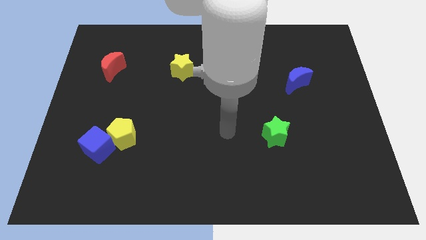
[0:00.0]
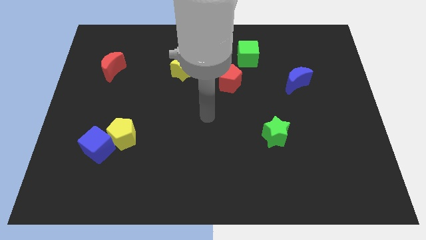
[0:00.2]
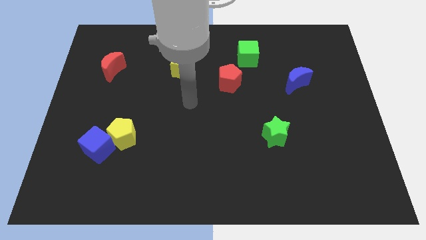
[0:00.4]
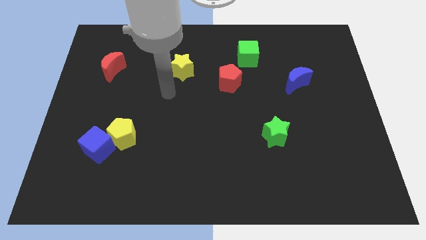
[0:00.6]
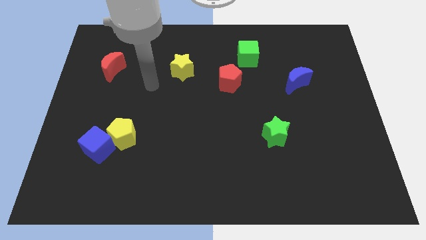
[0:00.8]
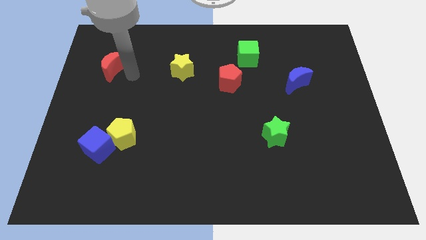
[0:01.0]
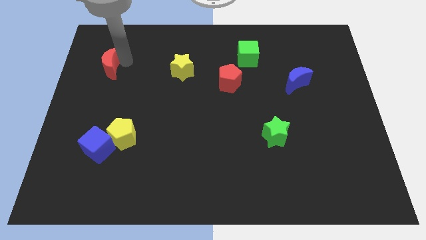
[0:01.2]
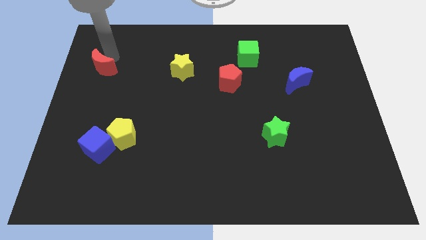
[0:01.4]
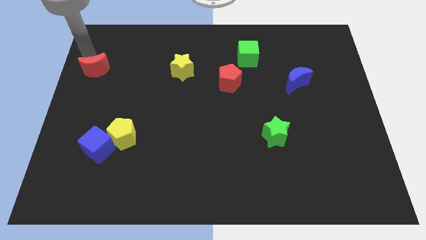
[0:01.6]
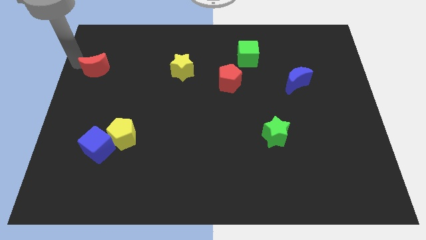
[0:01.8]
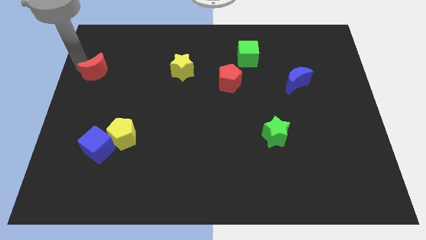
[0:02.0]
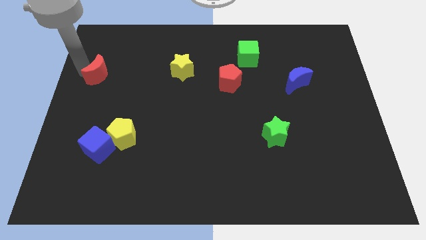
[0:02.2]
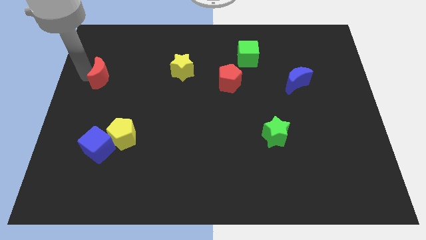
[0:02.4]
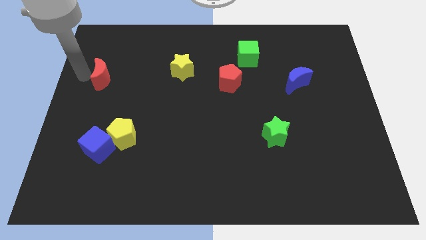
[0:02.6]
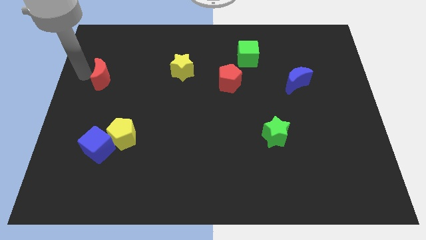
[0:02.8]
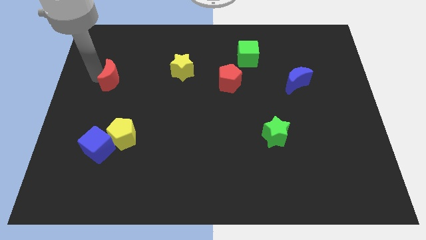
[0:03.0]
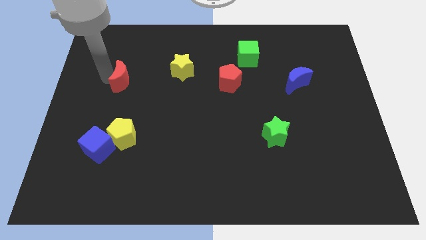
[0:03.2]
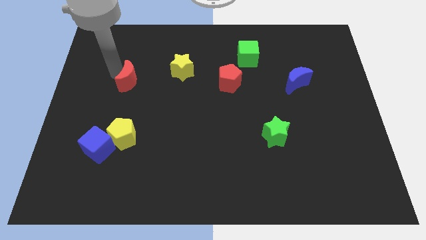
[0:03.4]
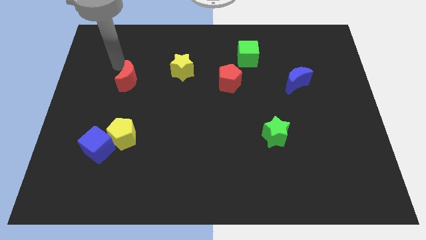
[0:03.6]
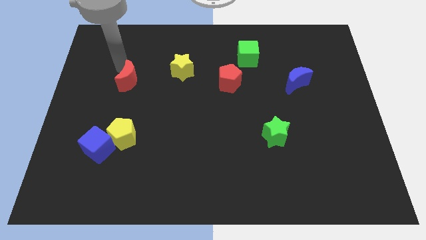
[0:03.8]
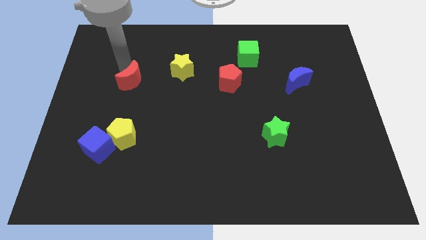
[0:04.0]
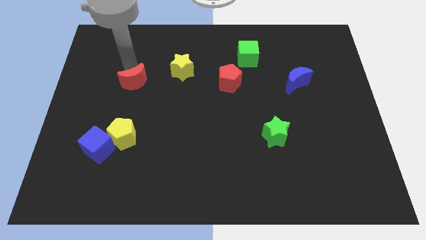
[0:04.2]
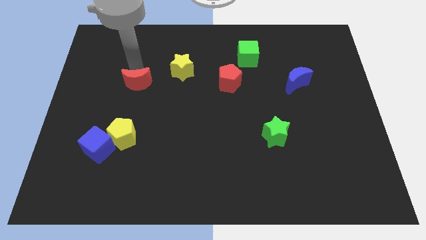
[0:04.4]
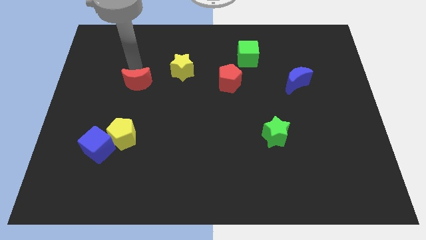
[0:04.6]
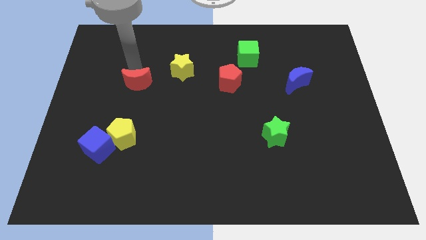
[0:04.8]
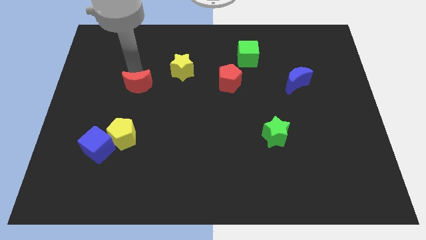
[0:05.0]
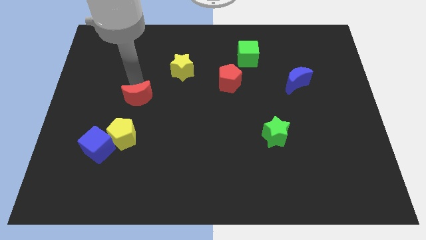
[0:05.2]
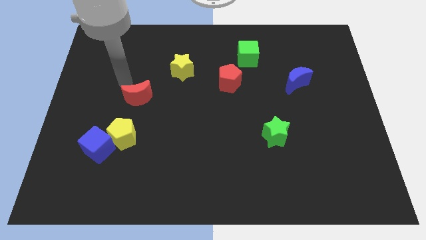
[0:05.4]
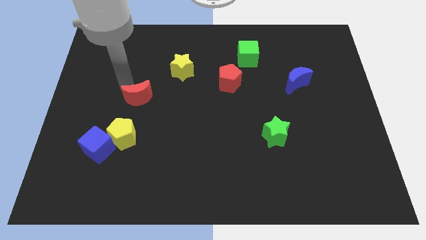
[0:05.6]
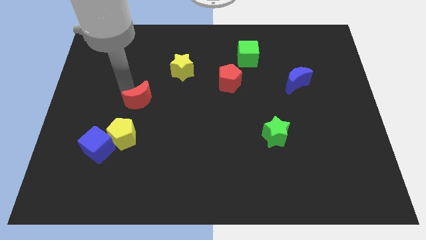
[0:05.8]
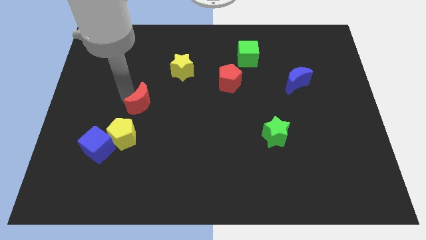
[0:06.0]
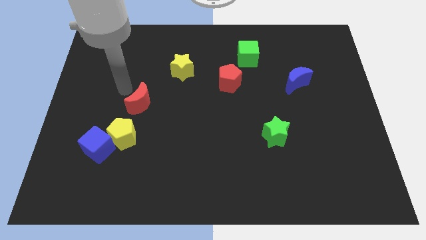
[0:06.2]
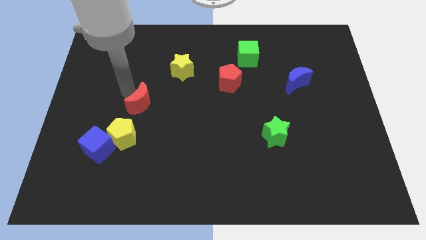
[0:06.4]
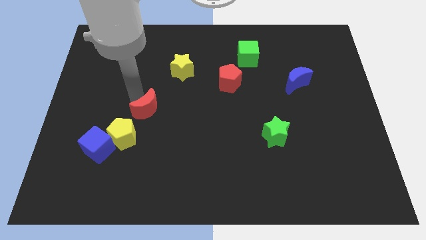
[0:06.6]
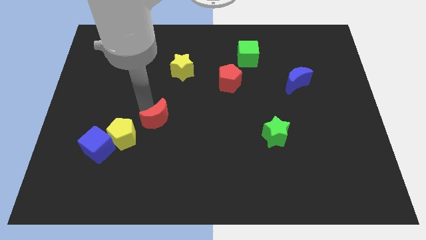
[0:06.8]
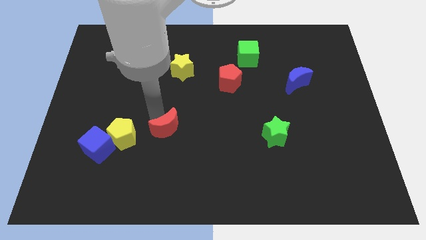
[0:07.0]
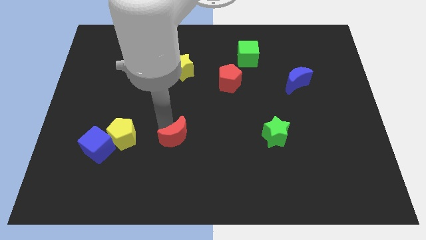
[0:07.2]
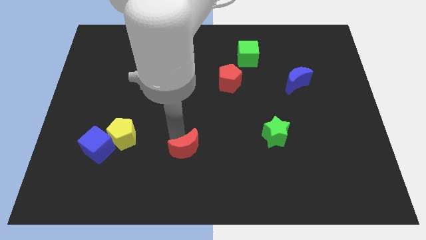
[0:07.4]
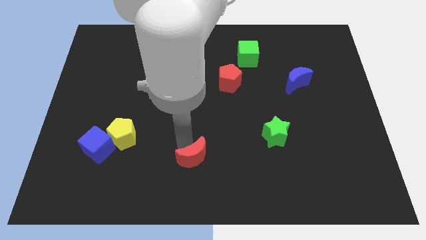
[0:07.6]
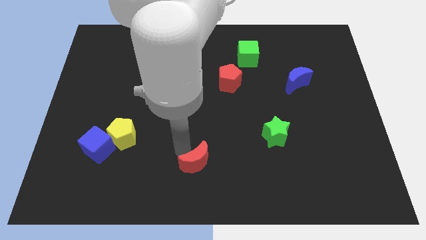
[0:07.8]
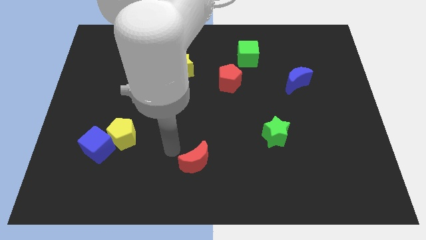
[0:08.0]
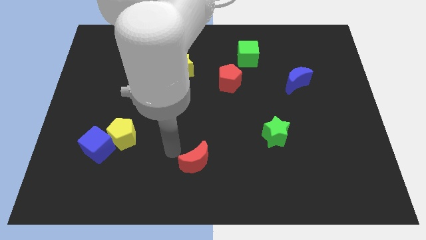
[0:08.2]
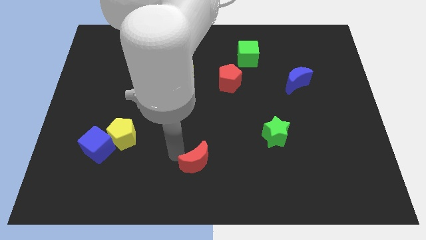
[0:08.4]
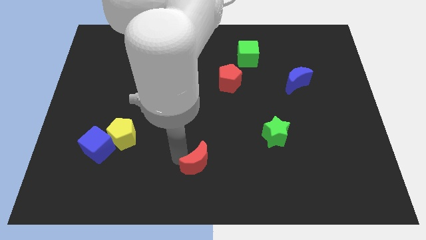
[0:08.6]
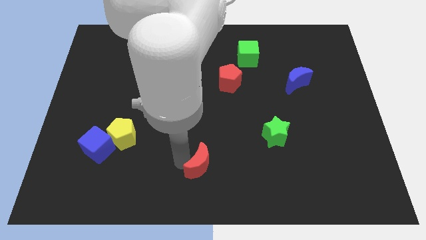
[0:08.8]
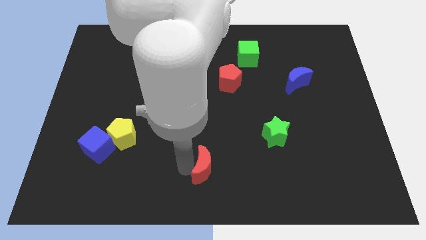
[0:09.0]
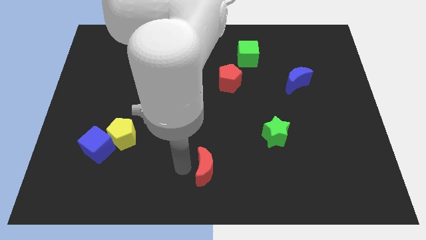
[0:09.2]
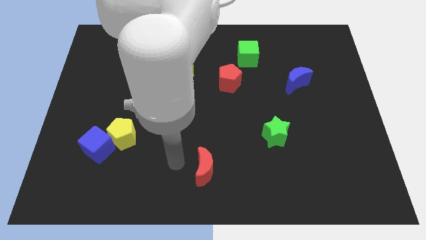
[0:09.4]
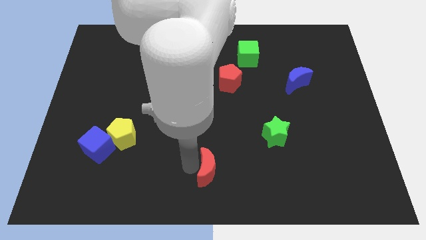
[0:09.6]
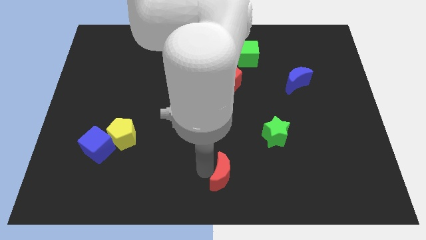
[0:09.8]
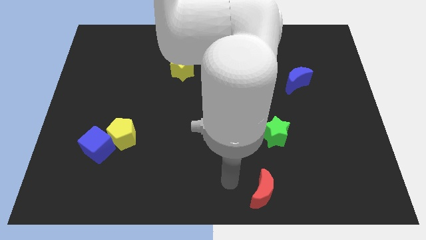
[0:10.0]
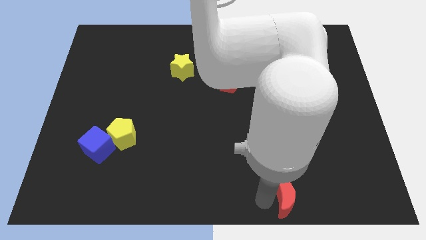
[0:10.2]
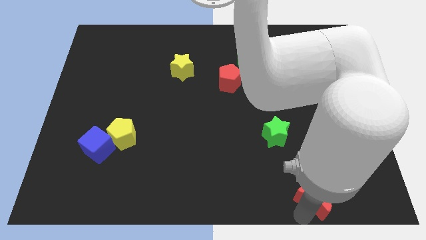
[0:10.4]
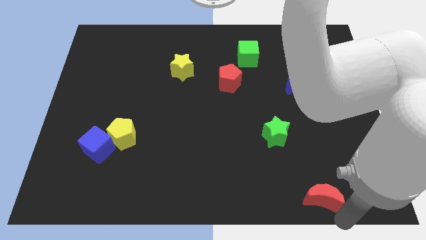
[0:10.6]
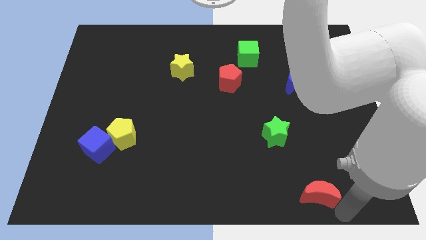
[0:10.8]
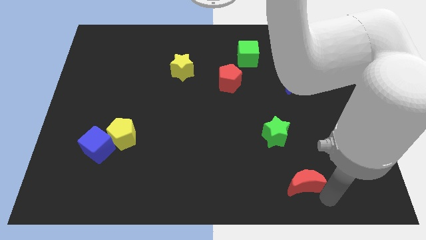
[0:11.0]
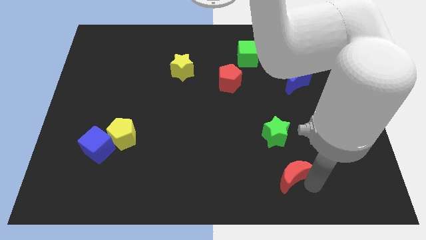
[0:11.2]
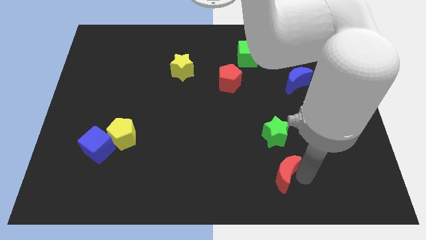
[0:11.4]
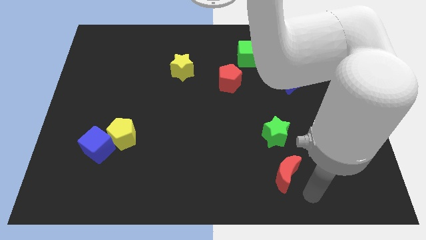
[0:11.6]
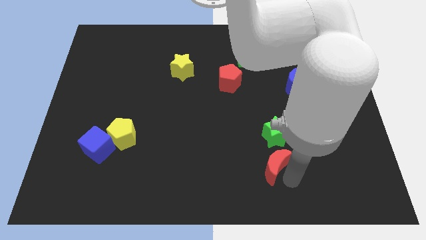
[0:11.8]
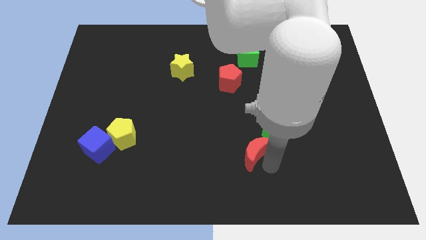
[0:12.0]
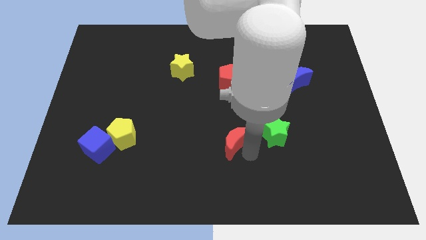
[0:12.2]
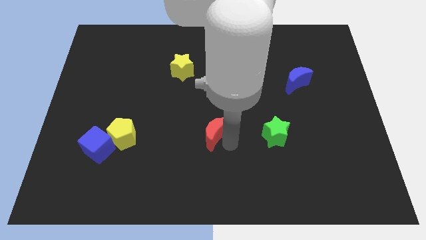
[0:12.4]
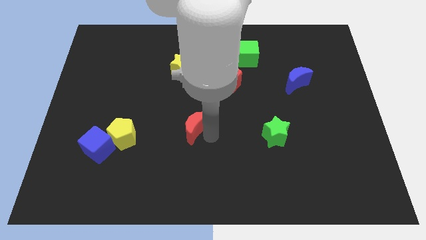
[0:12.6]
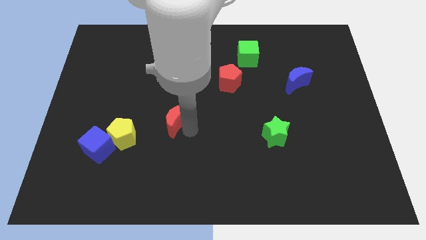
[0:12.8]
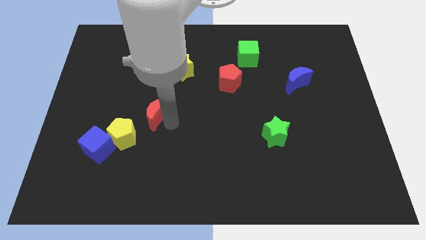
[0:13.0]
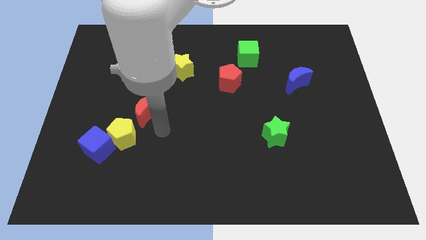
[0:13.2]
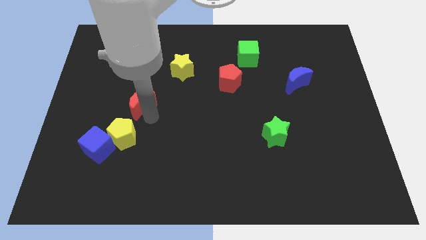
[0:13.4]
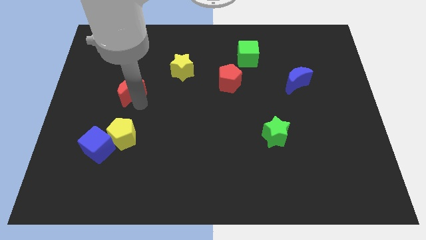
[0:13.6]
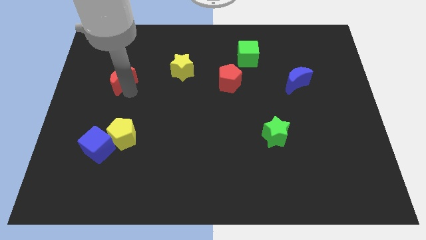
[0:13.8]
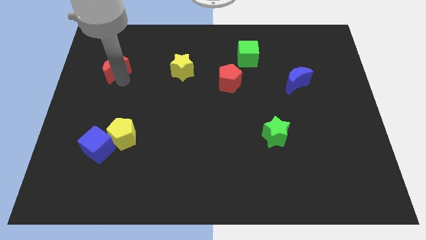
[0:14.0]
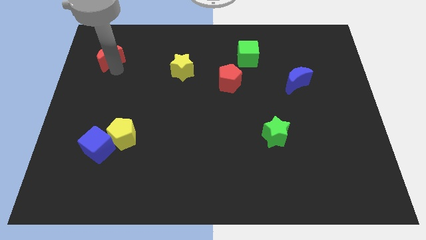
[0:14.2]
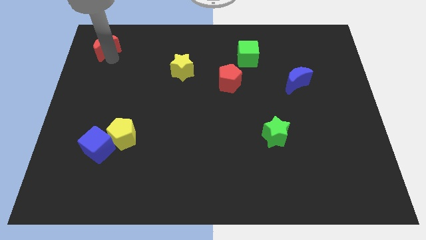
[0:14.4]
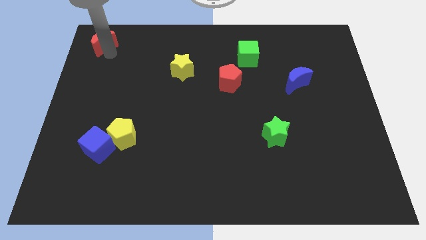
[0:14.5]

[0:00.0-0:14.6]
move the red moon to the top left corner
